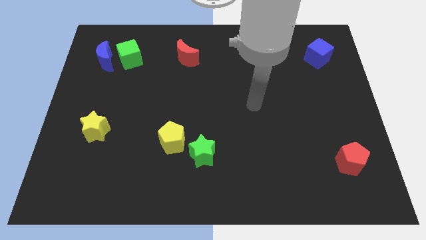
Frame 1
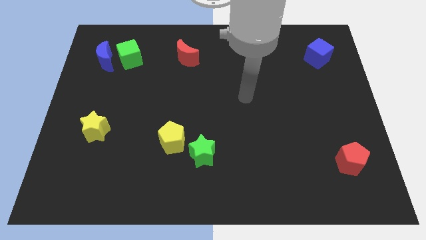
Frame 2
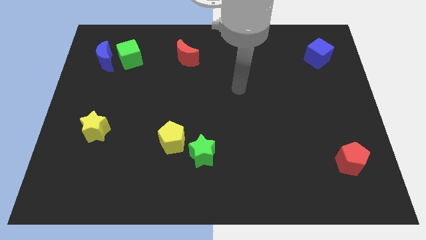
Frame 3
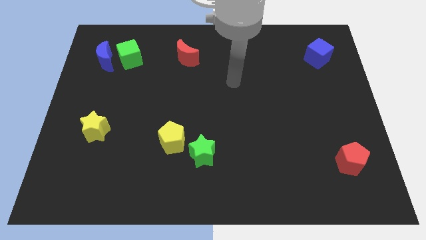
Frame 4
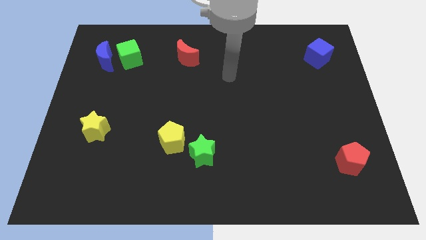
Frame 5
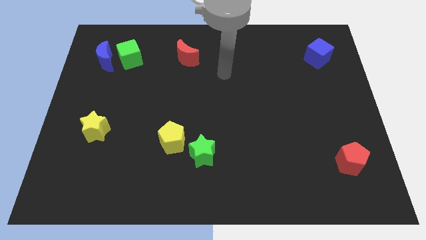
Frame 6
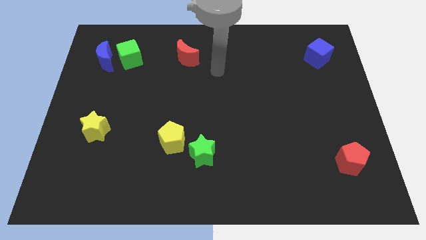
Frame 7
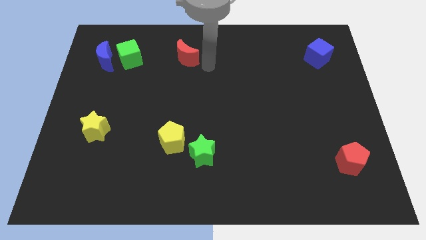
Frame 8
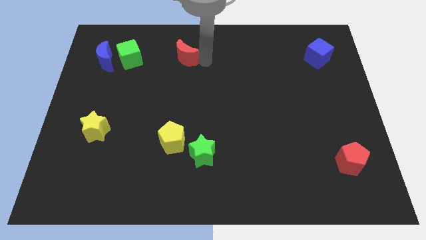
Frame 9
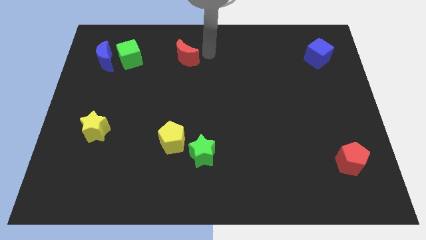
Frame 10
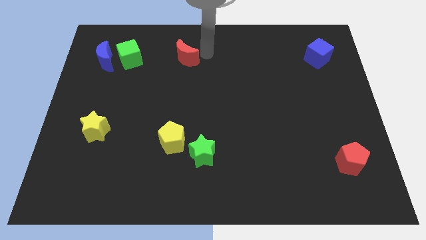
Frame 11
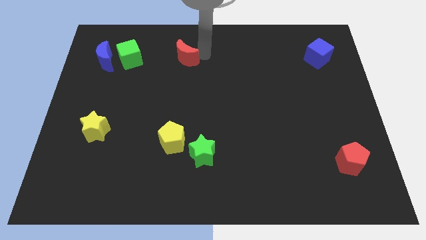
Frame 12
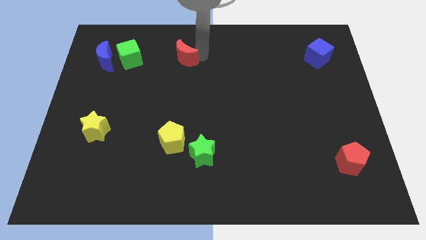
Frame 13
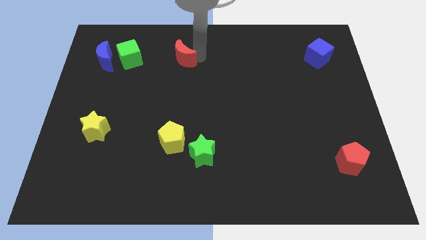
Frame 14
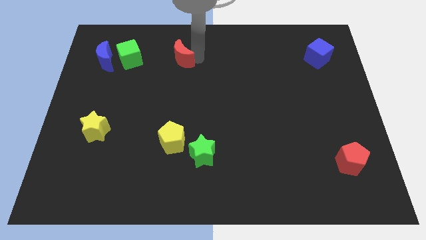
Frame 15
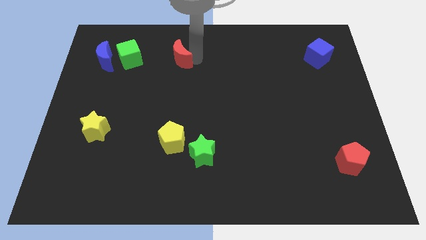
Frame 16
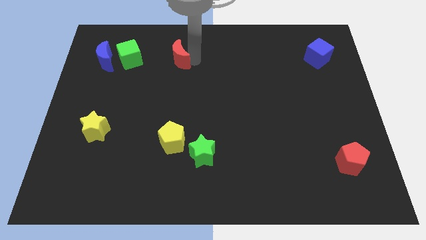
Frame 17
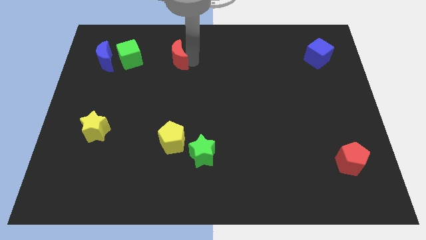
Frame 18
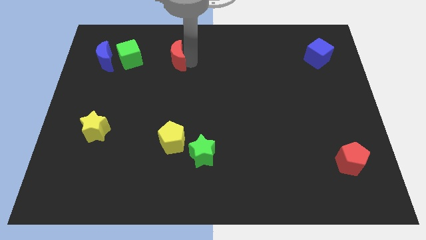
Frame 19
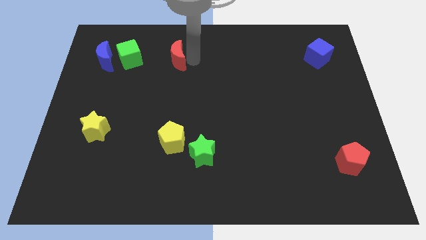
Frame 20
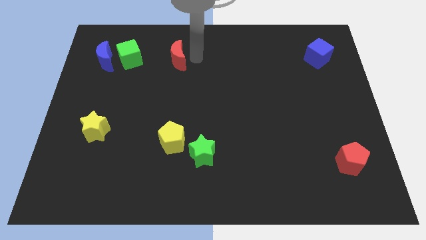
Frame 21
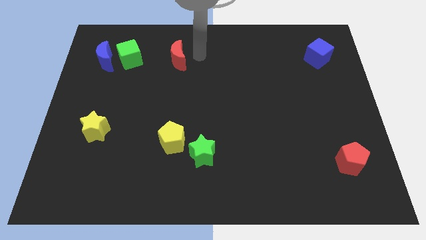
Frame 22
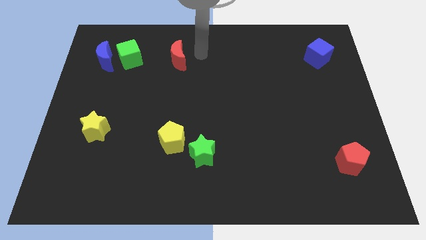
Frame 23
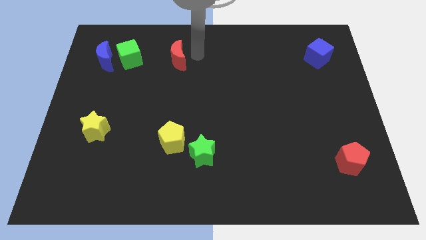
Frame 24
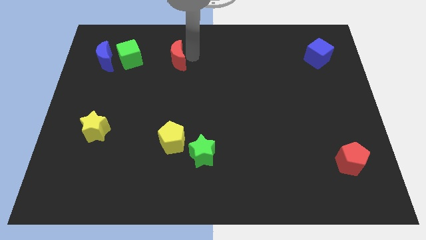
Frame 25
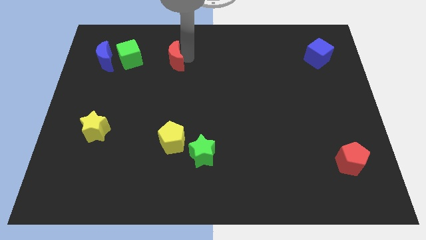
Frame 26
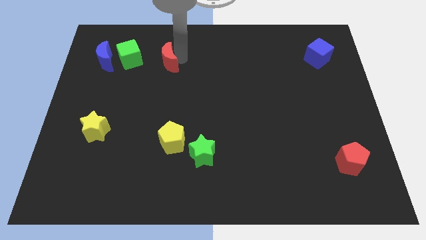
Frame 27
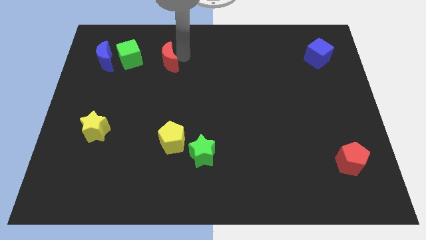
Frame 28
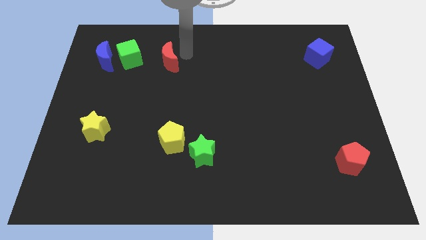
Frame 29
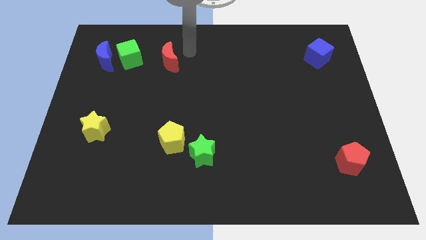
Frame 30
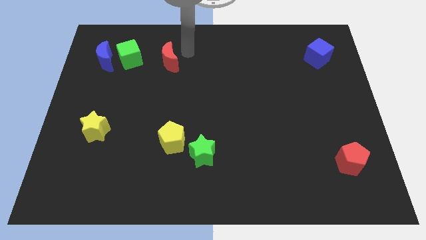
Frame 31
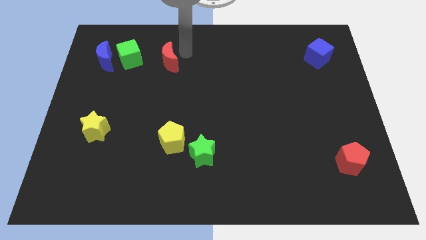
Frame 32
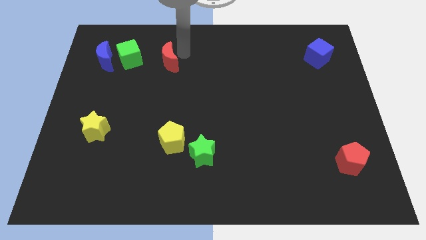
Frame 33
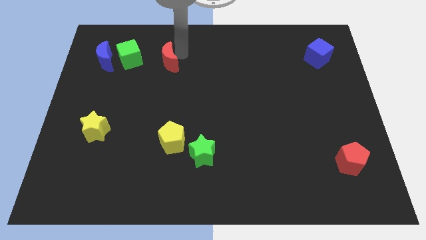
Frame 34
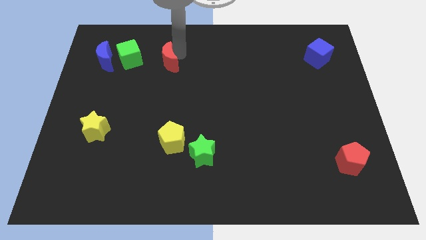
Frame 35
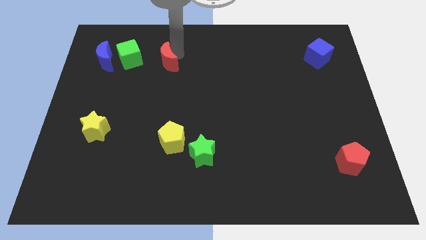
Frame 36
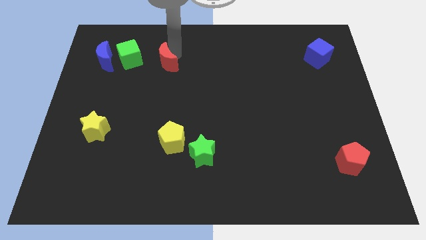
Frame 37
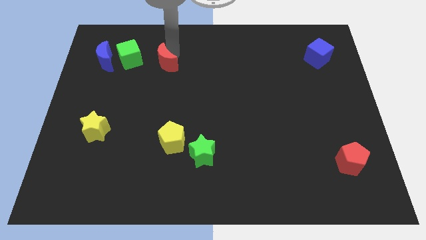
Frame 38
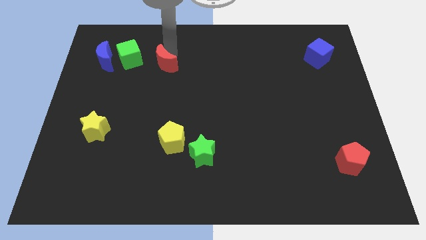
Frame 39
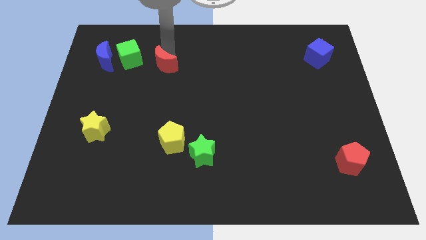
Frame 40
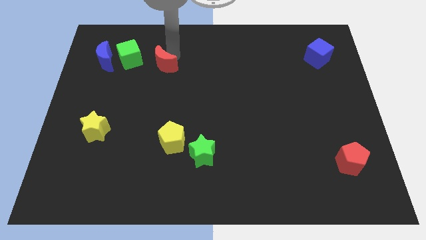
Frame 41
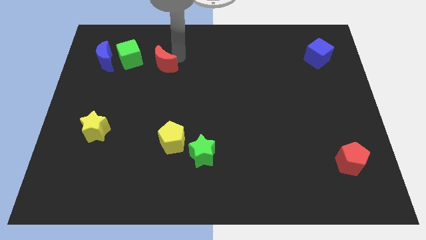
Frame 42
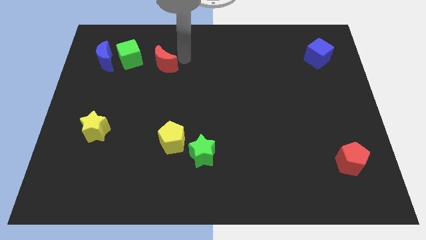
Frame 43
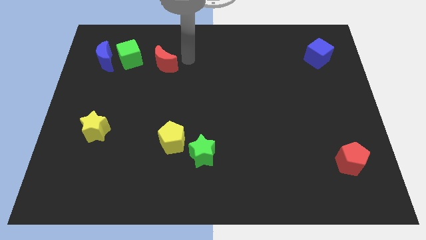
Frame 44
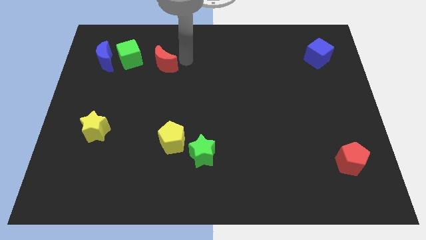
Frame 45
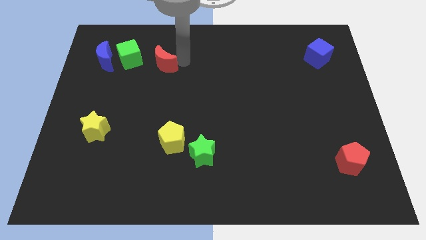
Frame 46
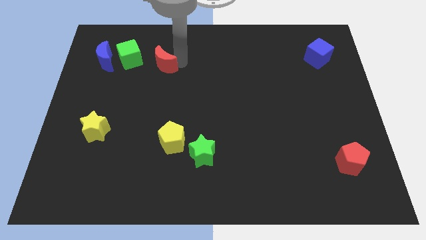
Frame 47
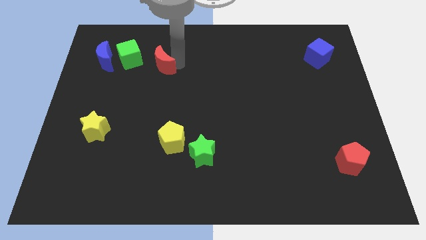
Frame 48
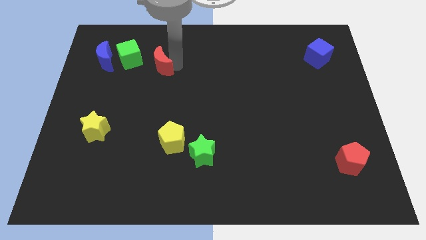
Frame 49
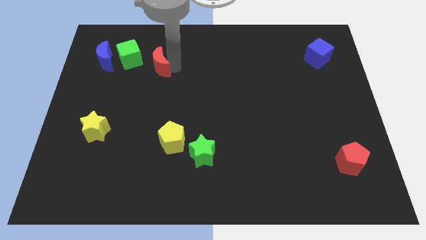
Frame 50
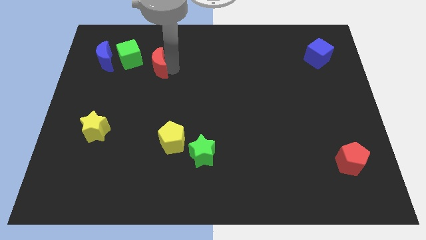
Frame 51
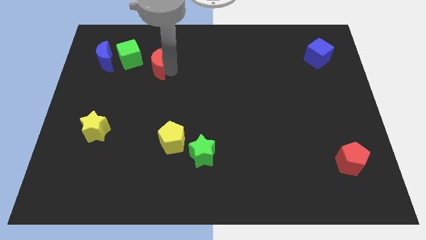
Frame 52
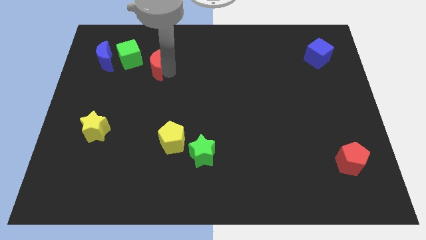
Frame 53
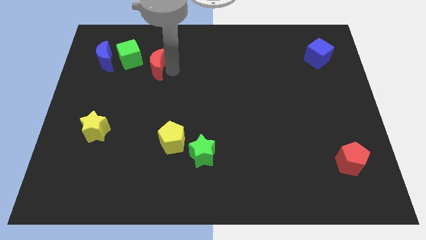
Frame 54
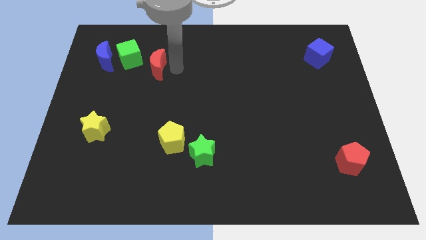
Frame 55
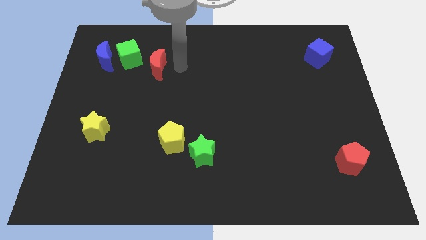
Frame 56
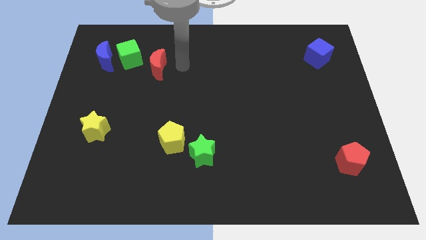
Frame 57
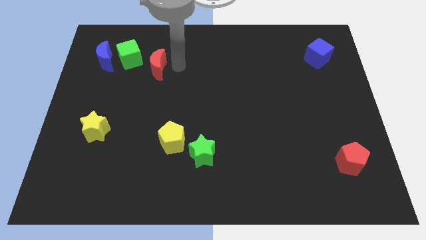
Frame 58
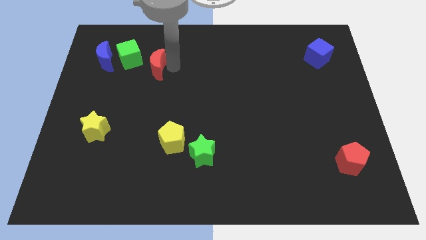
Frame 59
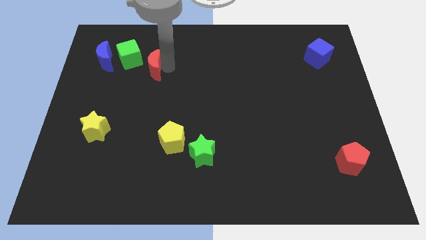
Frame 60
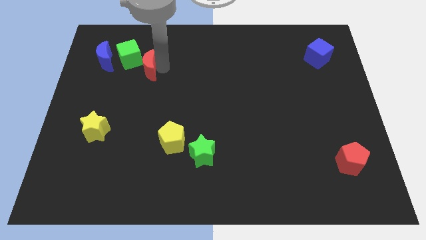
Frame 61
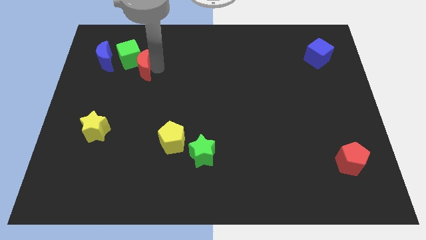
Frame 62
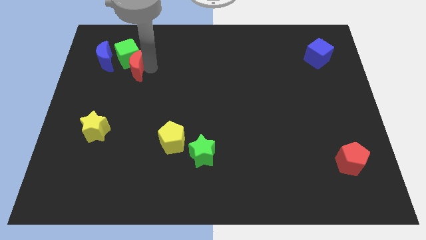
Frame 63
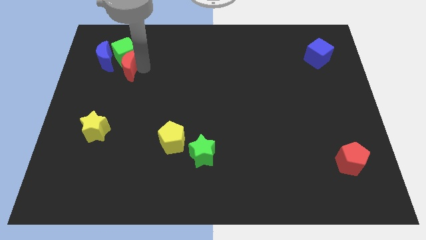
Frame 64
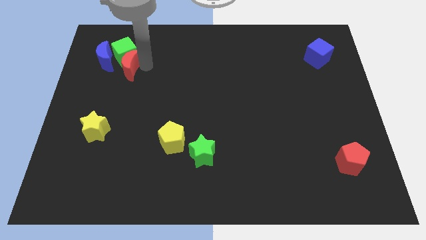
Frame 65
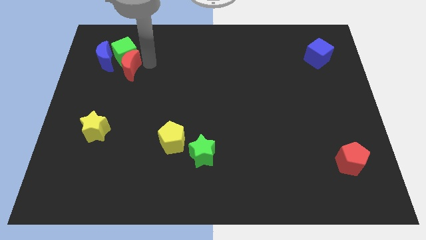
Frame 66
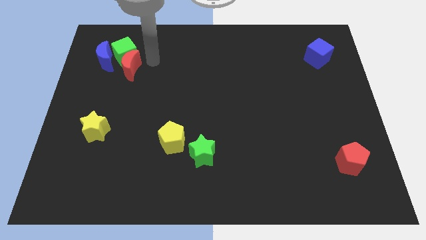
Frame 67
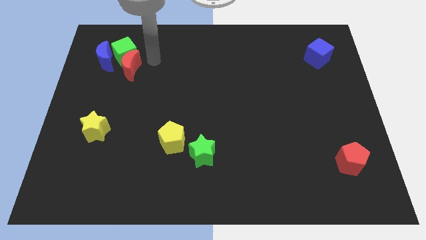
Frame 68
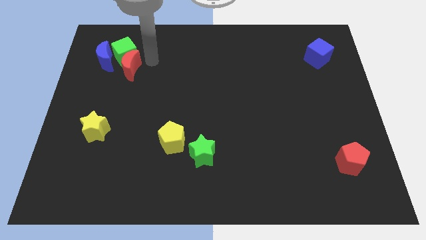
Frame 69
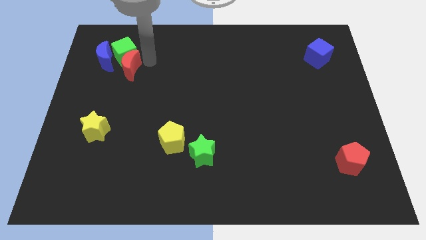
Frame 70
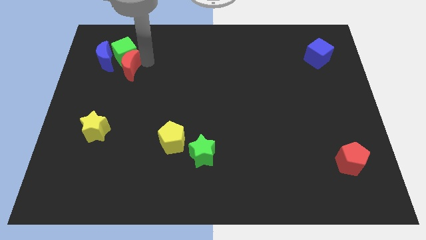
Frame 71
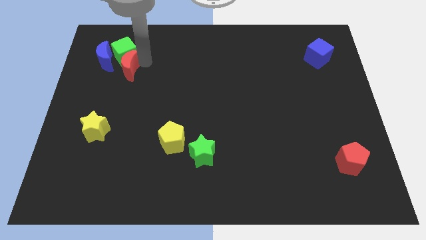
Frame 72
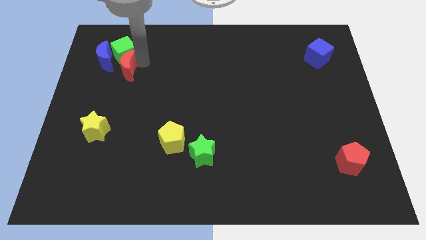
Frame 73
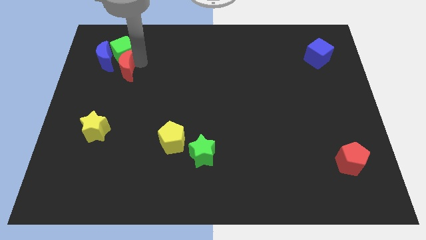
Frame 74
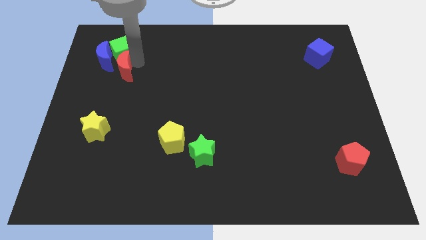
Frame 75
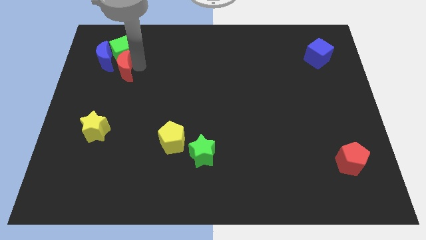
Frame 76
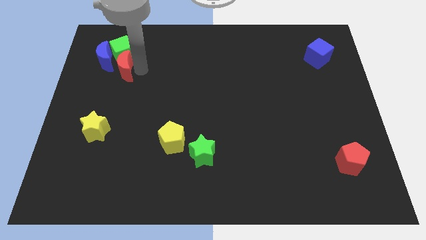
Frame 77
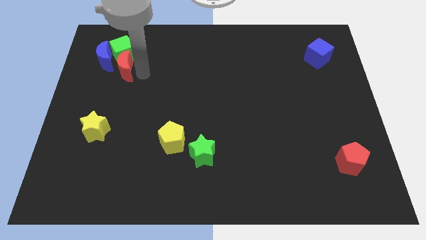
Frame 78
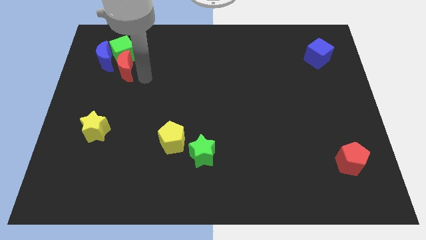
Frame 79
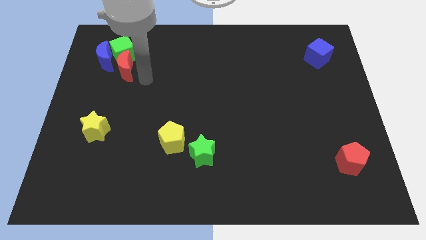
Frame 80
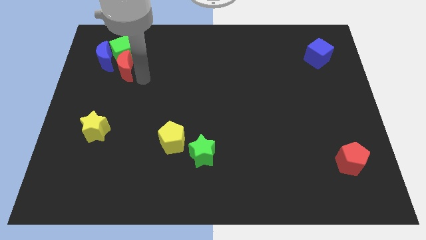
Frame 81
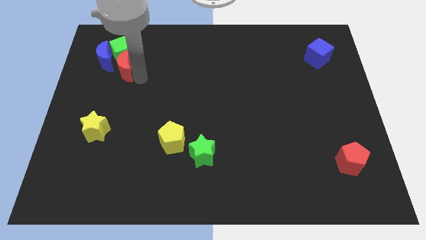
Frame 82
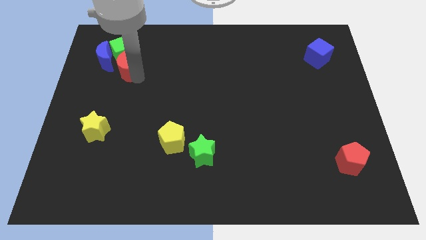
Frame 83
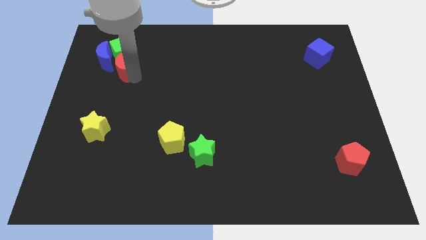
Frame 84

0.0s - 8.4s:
move the red moon to the blue moon
